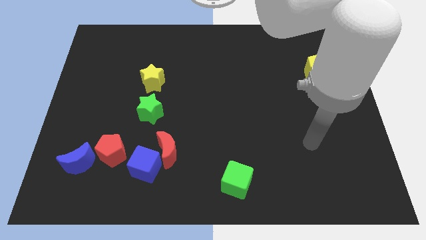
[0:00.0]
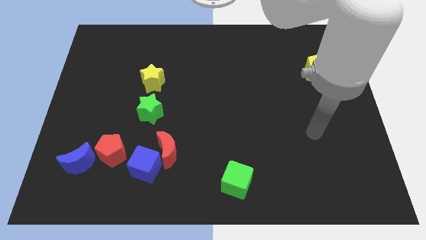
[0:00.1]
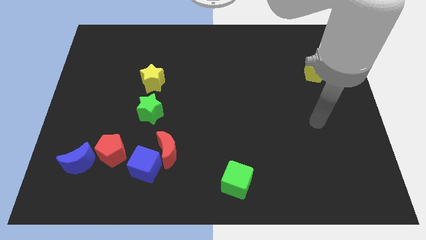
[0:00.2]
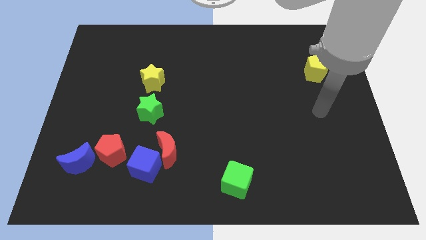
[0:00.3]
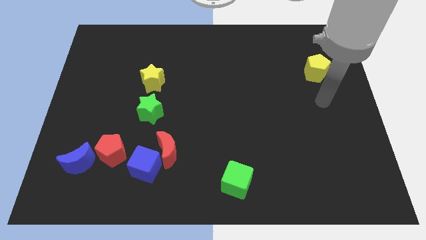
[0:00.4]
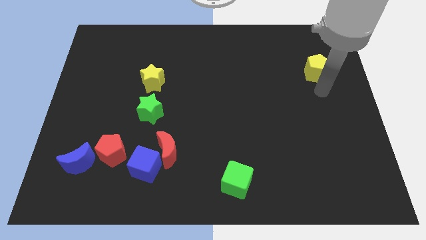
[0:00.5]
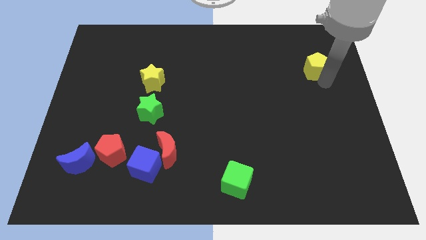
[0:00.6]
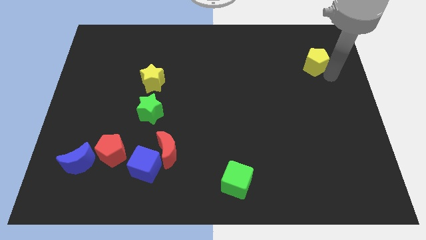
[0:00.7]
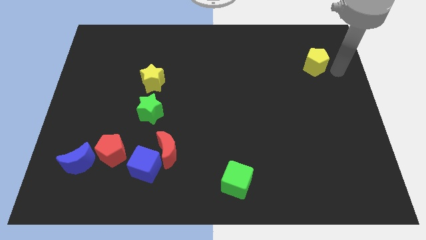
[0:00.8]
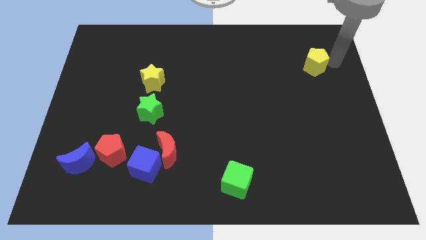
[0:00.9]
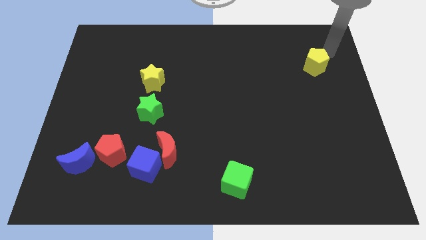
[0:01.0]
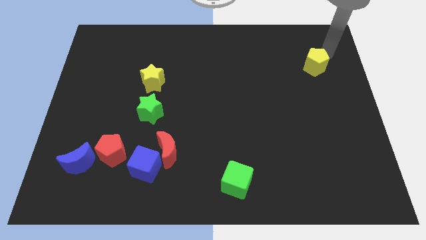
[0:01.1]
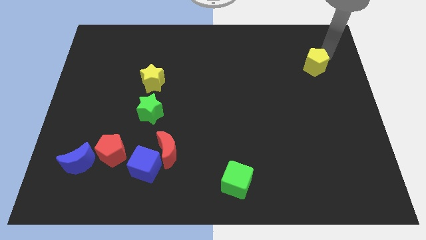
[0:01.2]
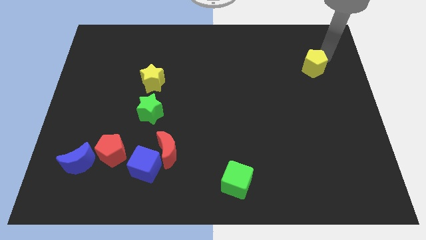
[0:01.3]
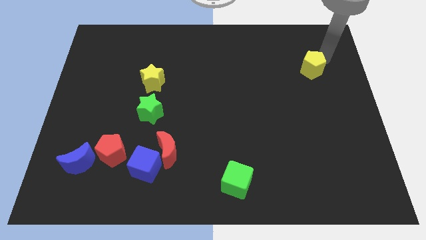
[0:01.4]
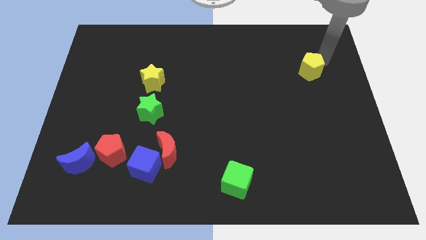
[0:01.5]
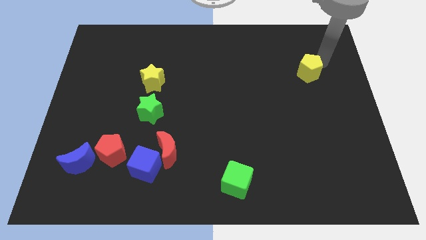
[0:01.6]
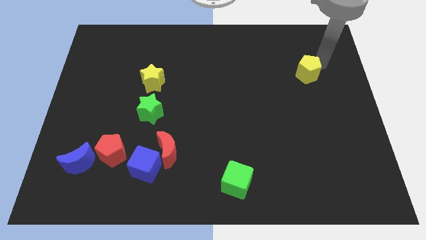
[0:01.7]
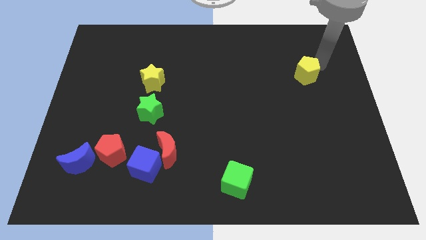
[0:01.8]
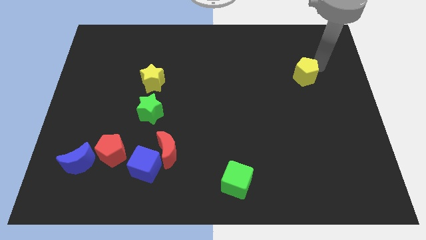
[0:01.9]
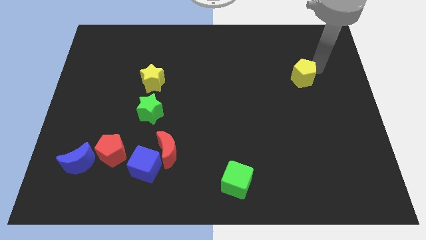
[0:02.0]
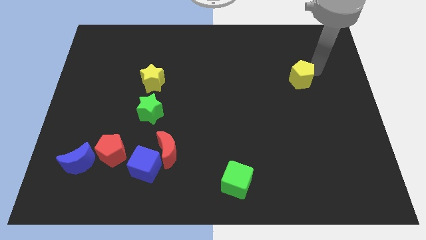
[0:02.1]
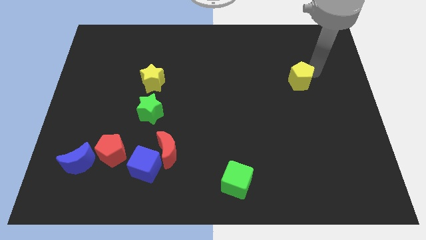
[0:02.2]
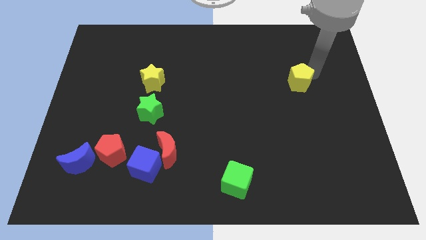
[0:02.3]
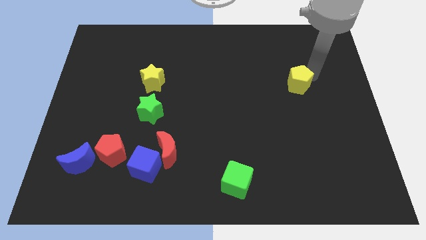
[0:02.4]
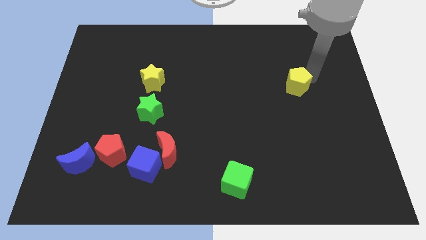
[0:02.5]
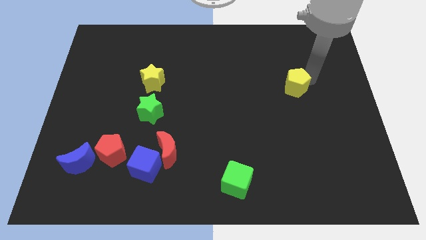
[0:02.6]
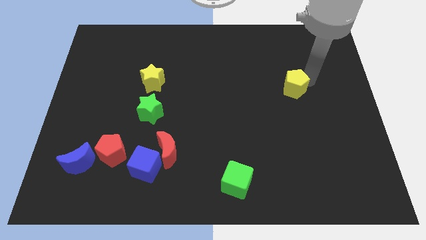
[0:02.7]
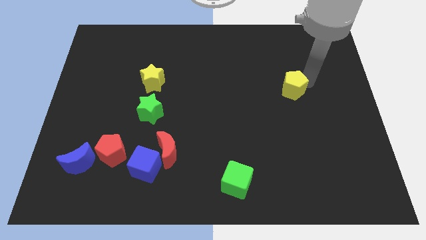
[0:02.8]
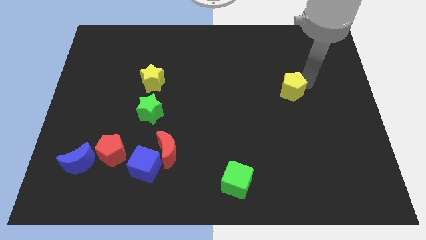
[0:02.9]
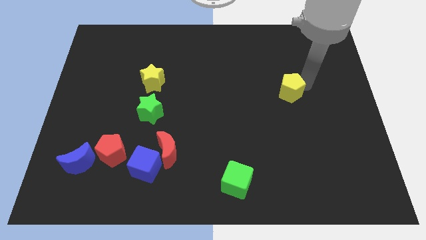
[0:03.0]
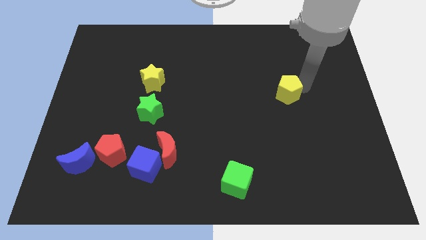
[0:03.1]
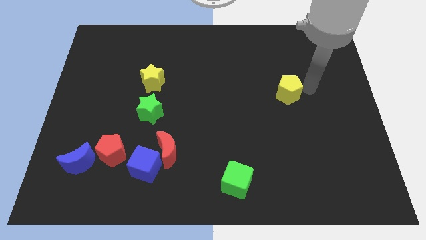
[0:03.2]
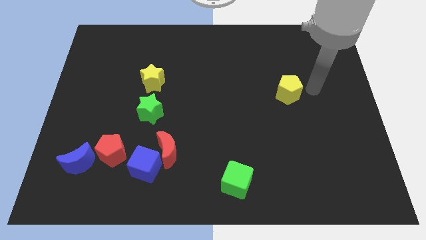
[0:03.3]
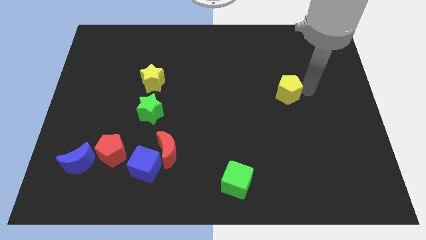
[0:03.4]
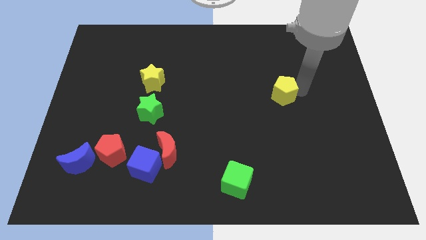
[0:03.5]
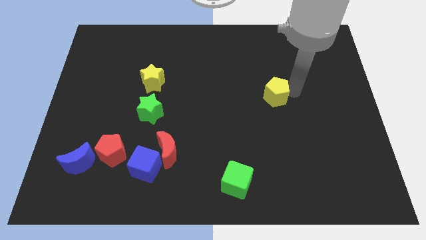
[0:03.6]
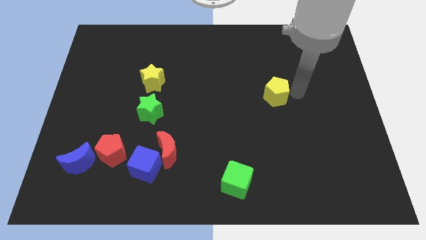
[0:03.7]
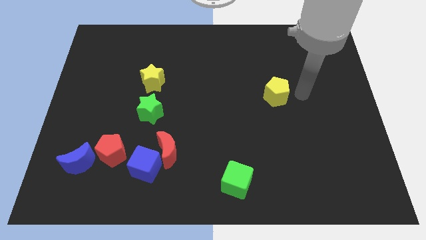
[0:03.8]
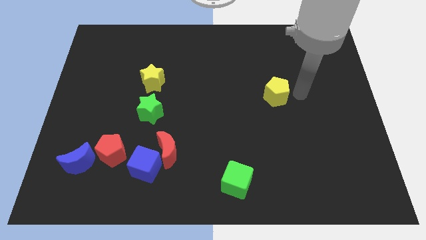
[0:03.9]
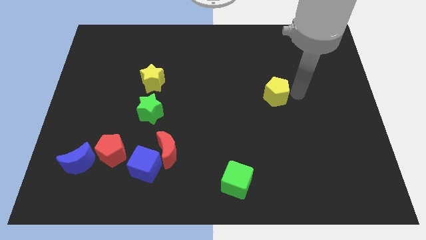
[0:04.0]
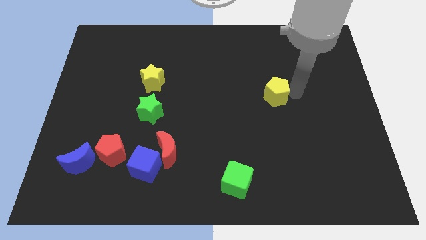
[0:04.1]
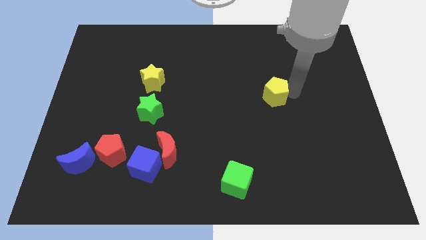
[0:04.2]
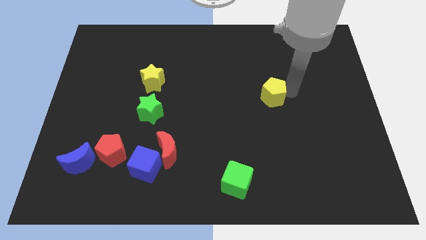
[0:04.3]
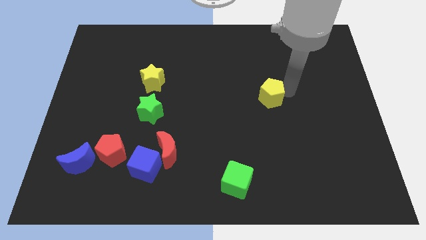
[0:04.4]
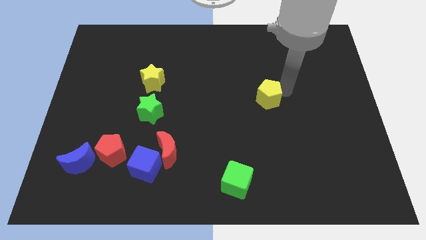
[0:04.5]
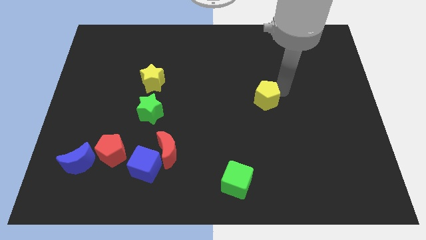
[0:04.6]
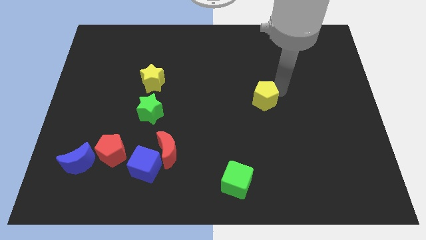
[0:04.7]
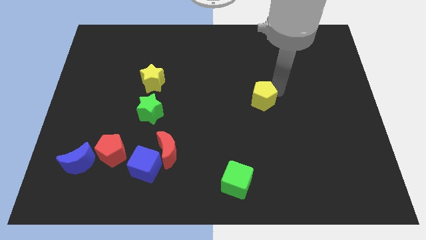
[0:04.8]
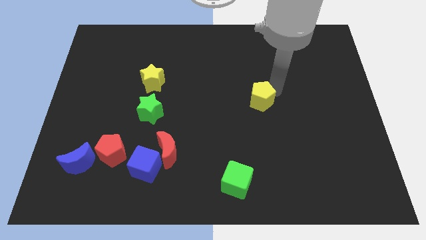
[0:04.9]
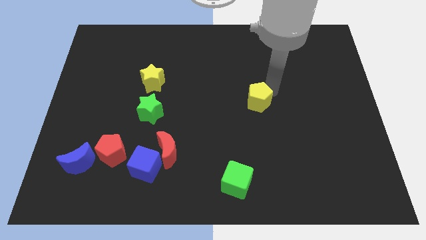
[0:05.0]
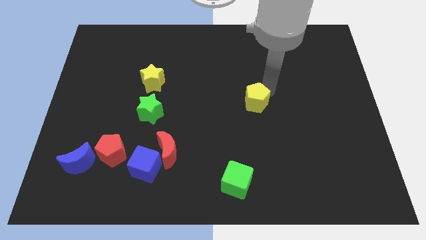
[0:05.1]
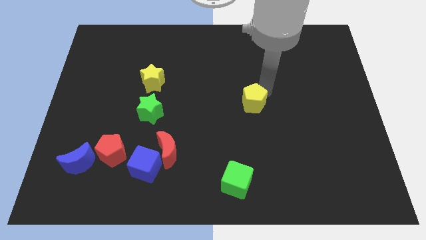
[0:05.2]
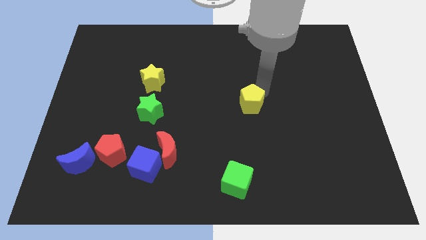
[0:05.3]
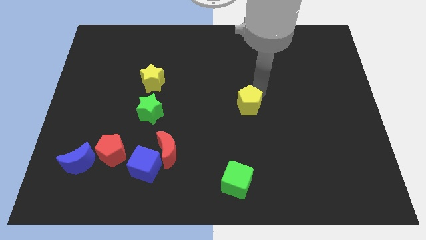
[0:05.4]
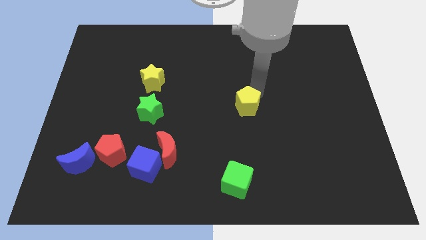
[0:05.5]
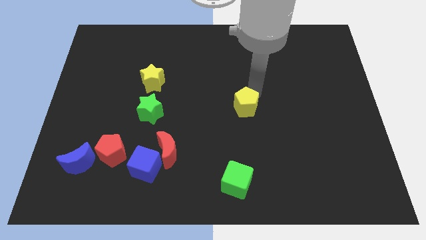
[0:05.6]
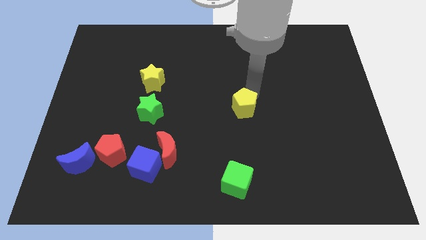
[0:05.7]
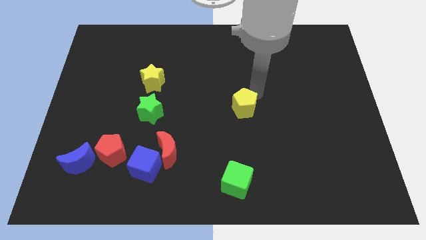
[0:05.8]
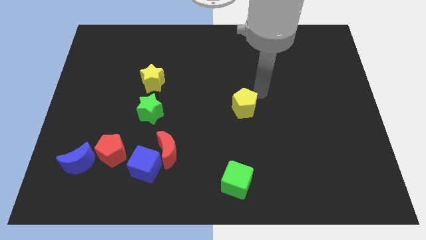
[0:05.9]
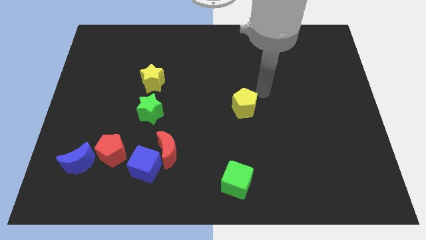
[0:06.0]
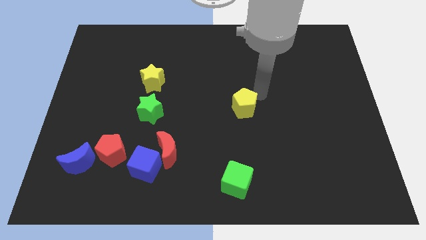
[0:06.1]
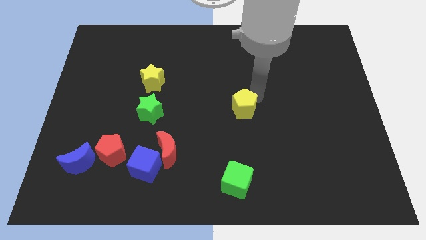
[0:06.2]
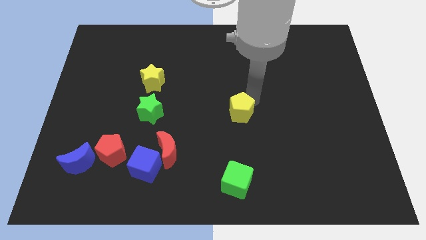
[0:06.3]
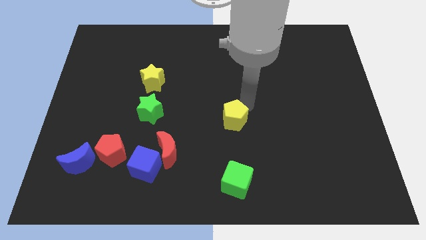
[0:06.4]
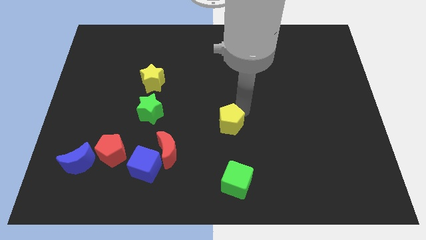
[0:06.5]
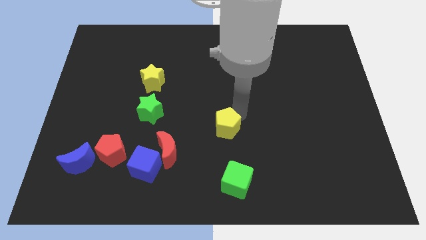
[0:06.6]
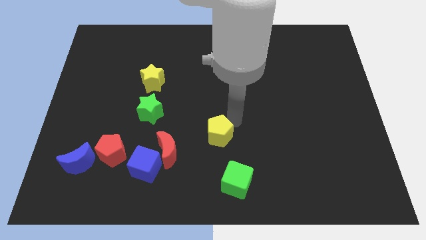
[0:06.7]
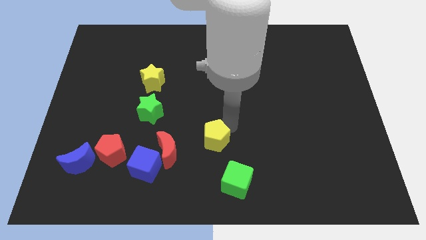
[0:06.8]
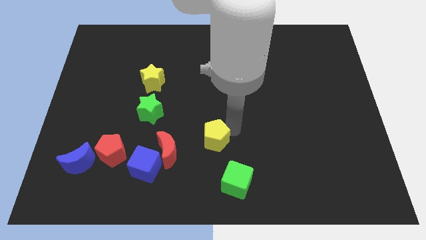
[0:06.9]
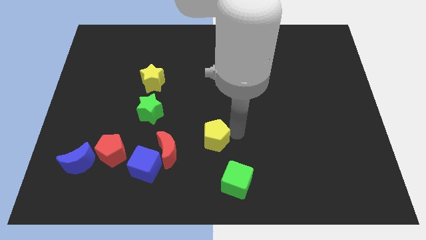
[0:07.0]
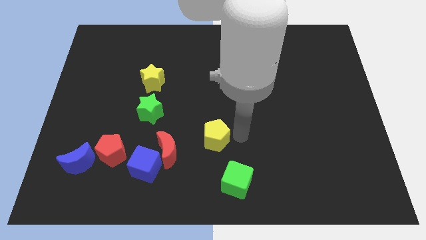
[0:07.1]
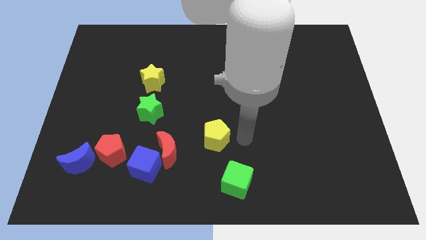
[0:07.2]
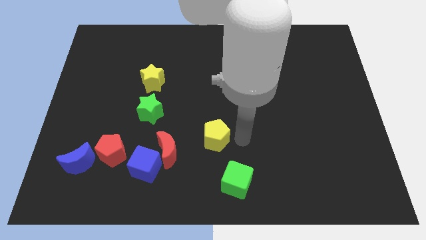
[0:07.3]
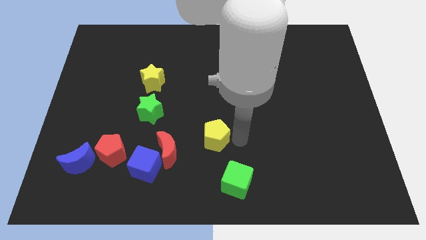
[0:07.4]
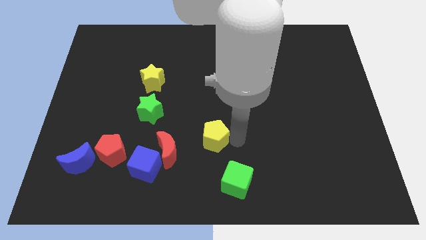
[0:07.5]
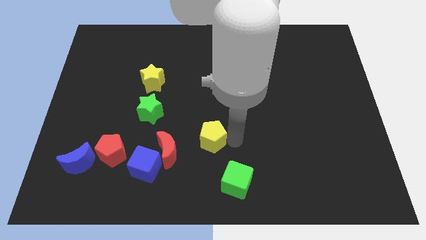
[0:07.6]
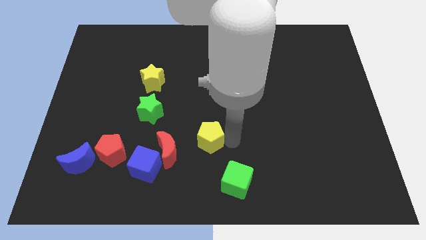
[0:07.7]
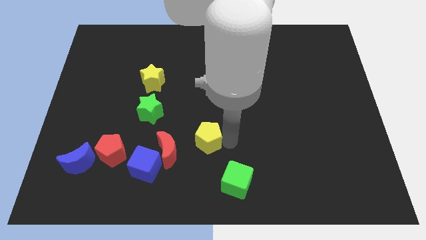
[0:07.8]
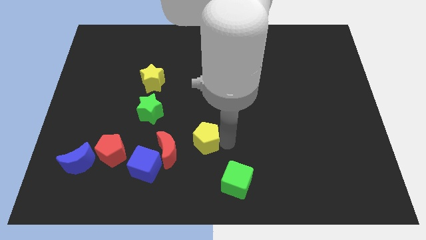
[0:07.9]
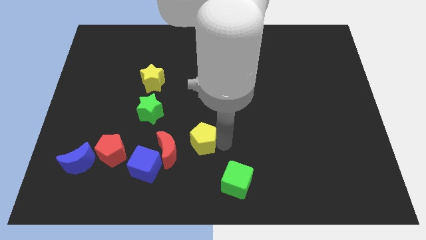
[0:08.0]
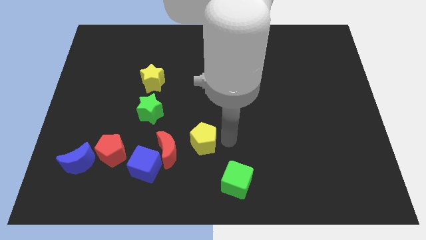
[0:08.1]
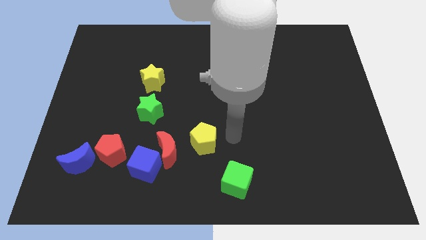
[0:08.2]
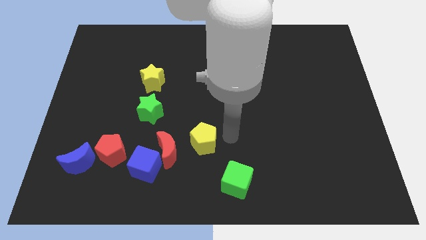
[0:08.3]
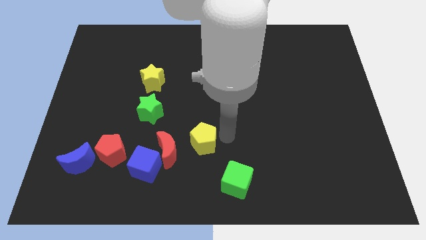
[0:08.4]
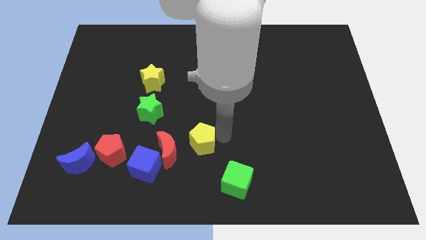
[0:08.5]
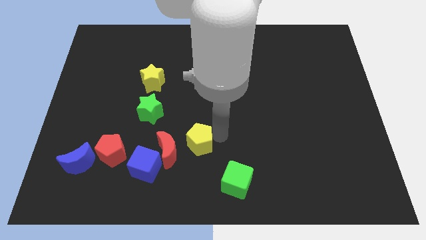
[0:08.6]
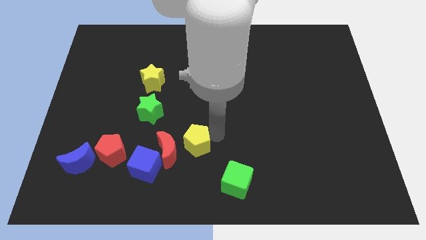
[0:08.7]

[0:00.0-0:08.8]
push the yellow pentagon to the top right side of the blue cube
